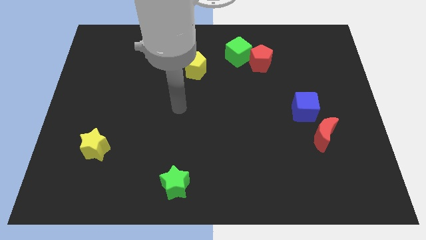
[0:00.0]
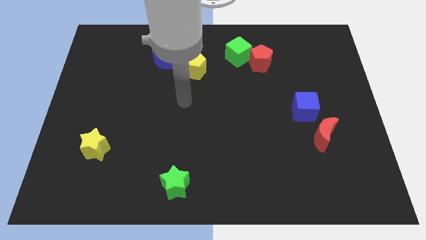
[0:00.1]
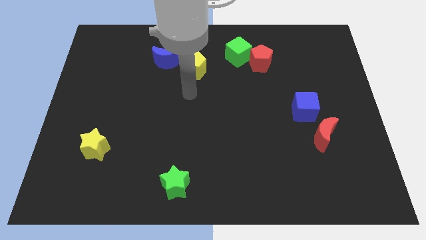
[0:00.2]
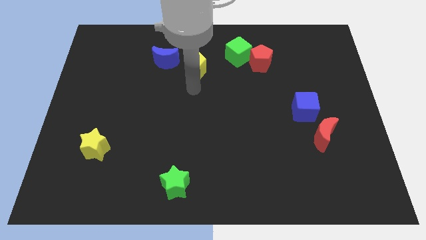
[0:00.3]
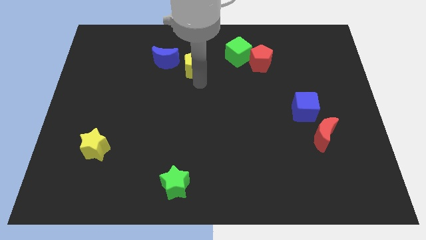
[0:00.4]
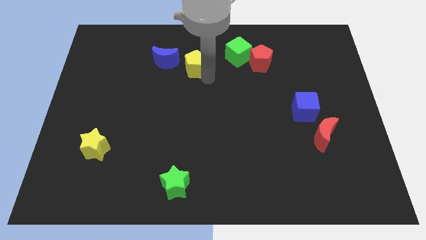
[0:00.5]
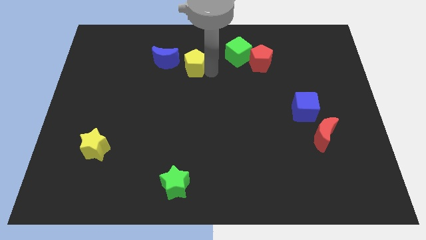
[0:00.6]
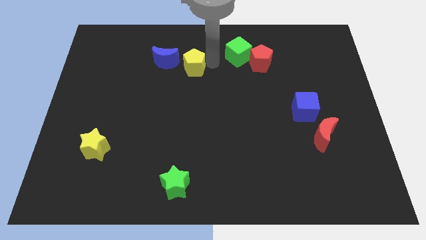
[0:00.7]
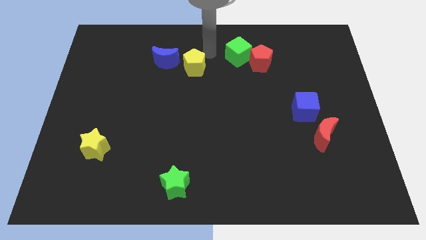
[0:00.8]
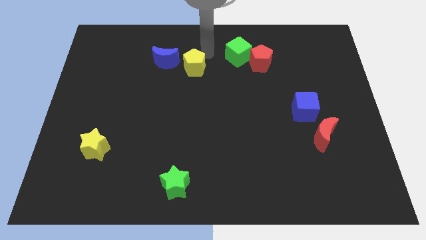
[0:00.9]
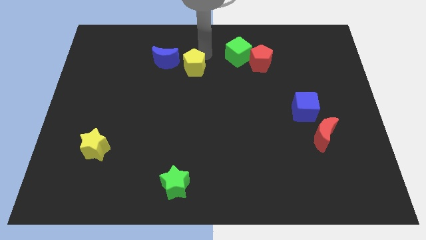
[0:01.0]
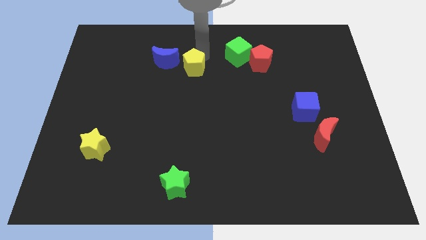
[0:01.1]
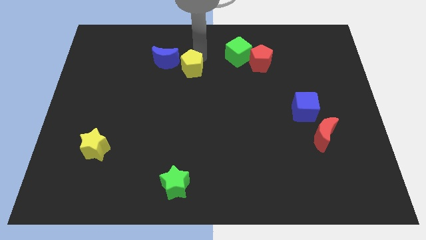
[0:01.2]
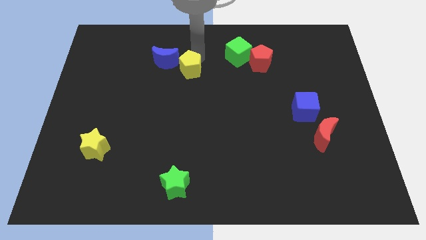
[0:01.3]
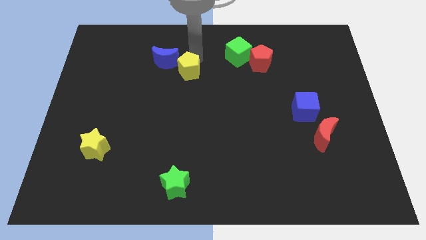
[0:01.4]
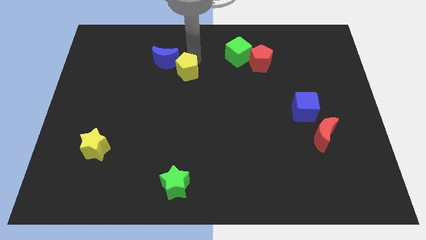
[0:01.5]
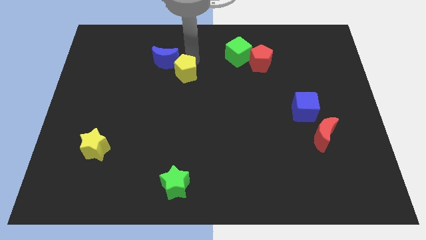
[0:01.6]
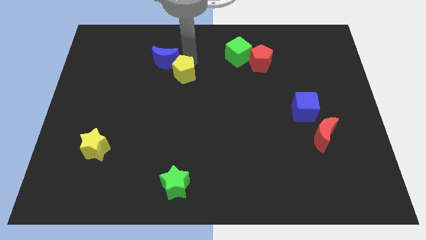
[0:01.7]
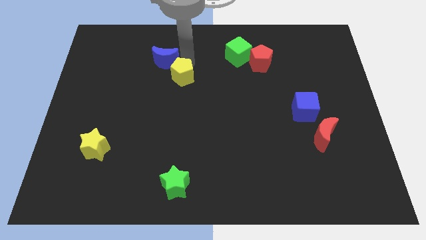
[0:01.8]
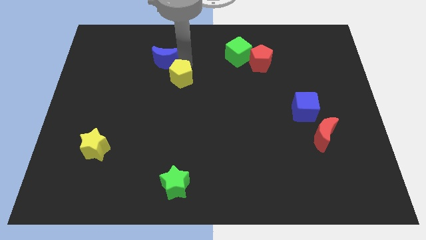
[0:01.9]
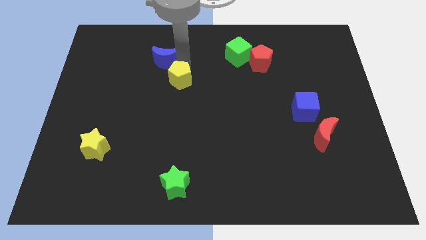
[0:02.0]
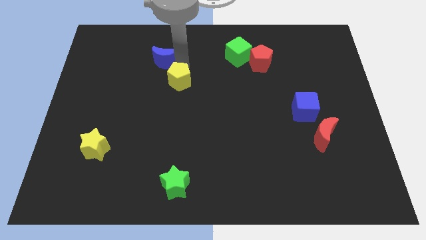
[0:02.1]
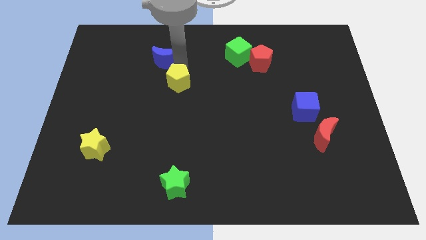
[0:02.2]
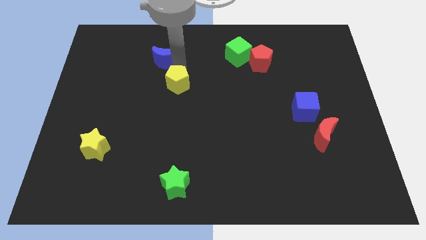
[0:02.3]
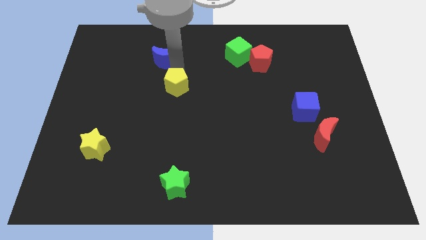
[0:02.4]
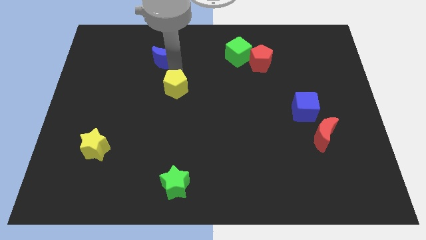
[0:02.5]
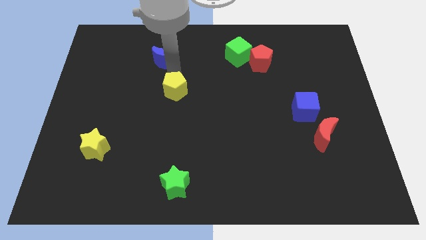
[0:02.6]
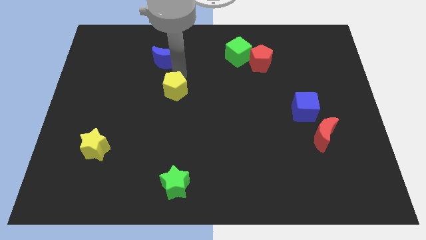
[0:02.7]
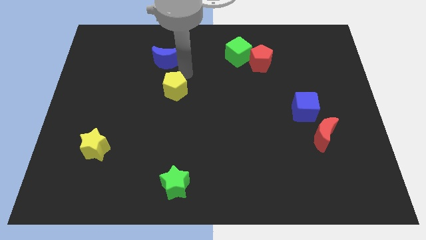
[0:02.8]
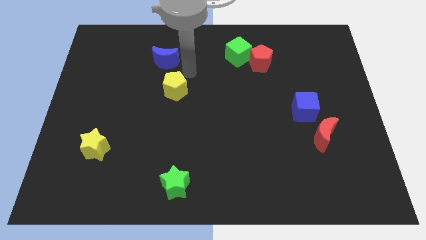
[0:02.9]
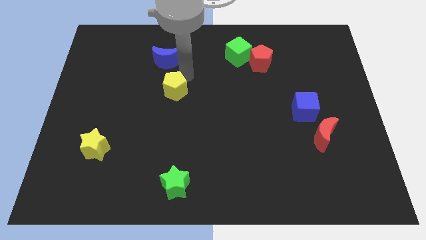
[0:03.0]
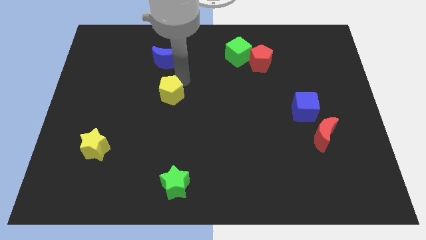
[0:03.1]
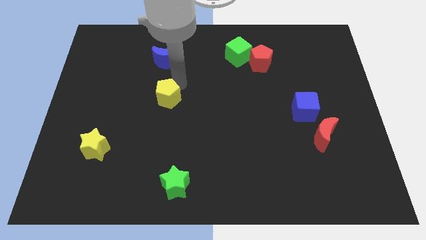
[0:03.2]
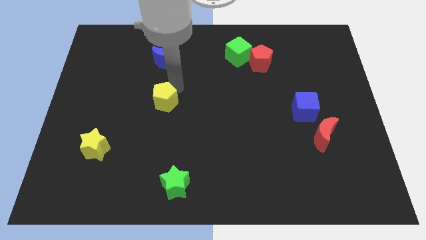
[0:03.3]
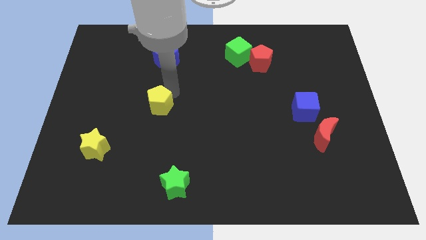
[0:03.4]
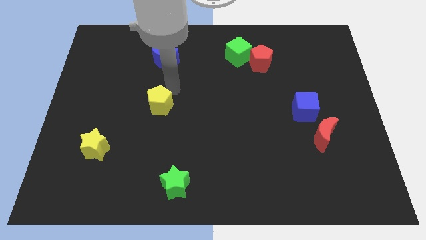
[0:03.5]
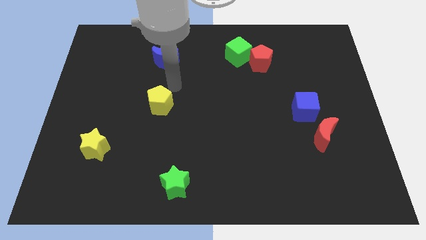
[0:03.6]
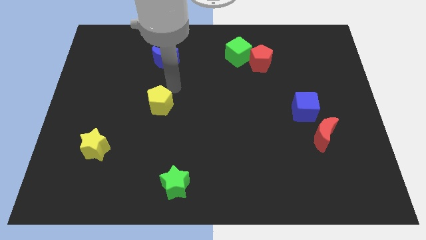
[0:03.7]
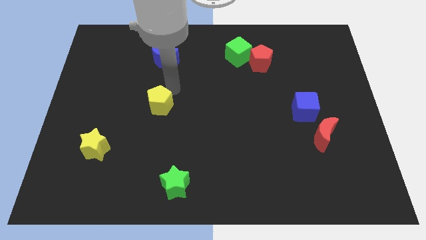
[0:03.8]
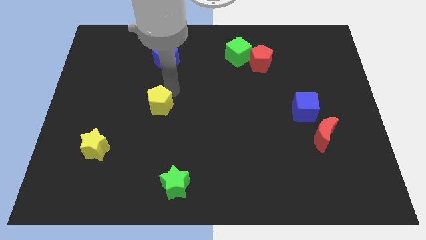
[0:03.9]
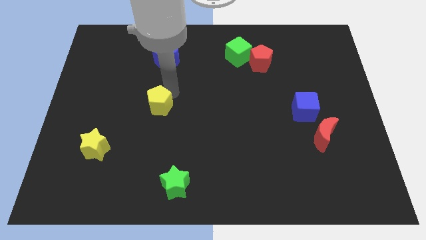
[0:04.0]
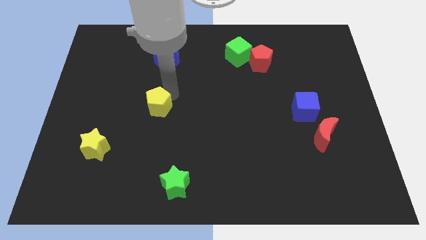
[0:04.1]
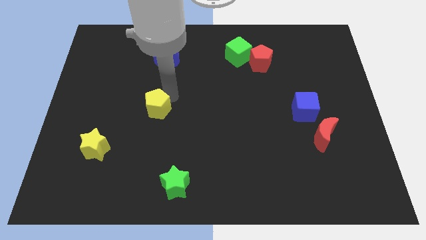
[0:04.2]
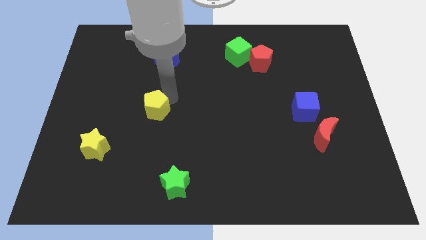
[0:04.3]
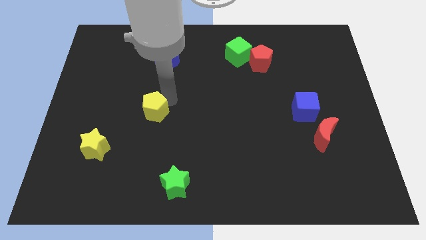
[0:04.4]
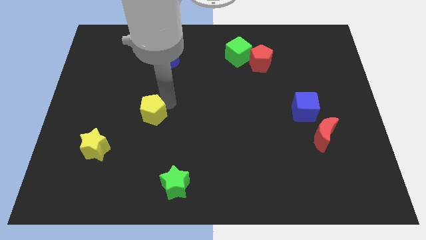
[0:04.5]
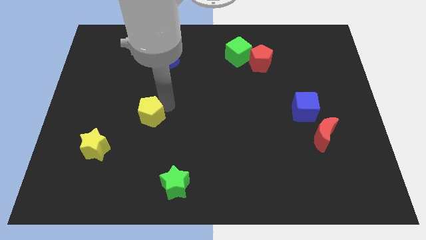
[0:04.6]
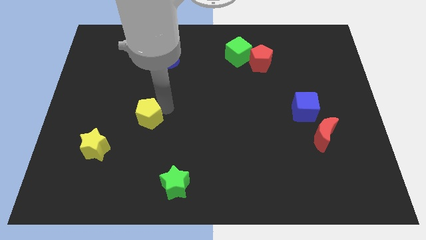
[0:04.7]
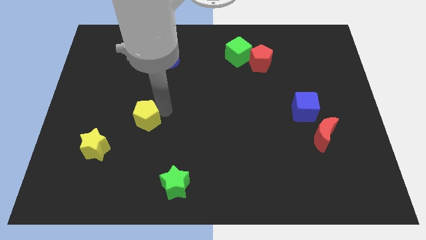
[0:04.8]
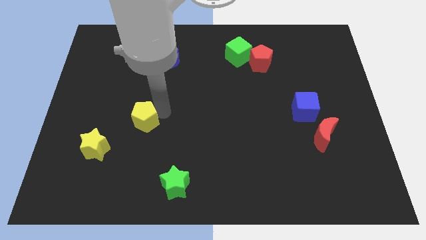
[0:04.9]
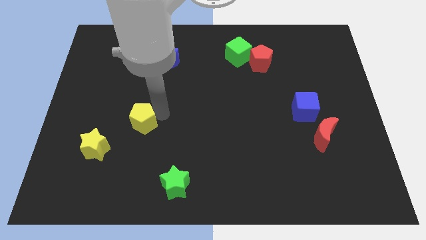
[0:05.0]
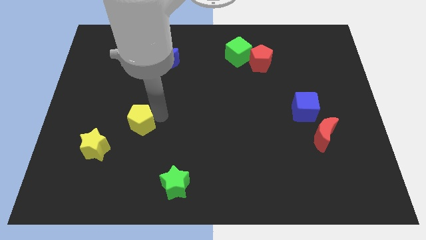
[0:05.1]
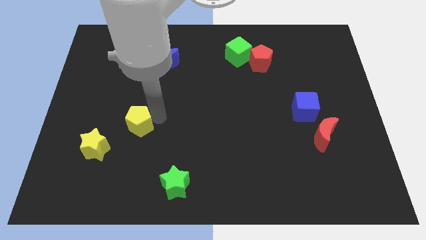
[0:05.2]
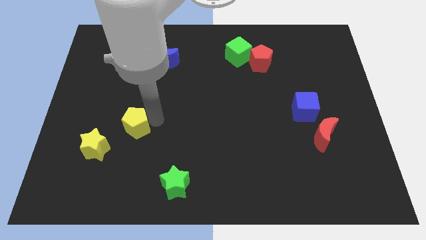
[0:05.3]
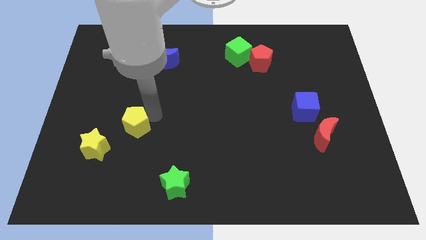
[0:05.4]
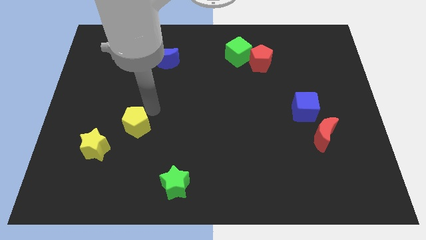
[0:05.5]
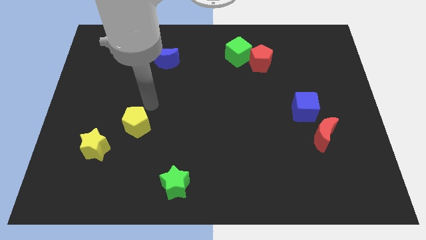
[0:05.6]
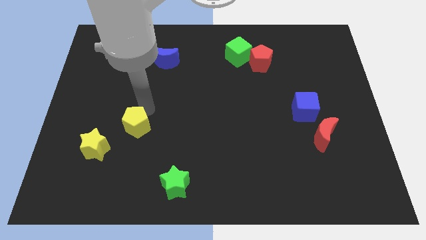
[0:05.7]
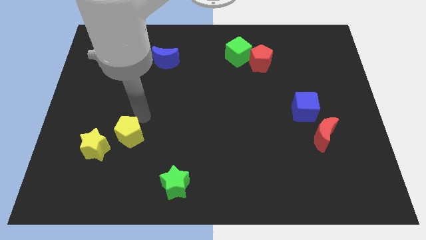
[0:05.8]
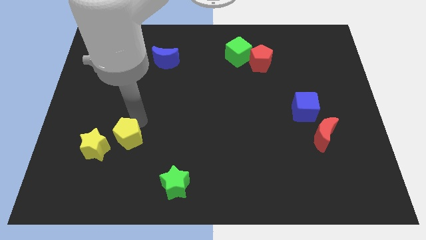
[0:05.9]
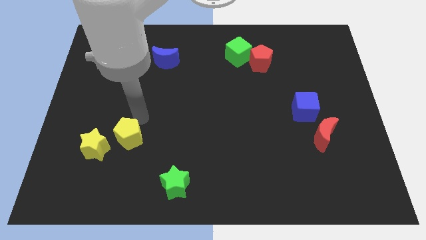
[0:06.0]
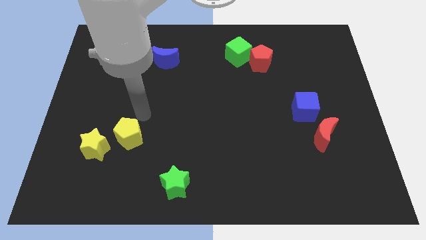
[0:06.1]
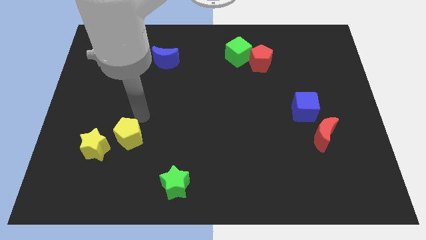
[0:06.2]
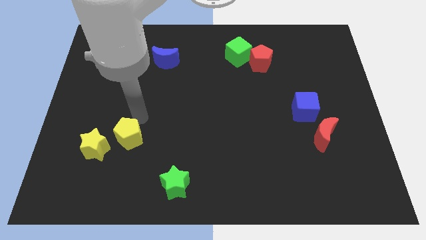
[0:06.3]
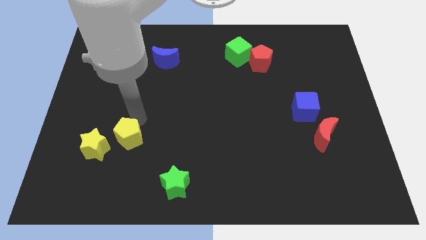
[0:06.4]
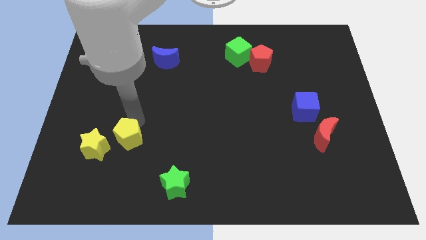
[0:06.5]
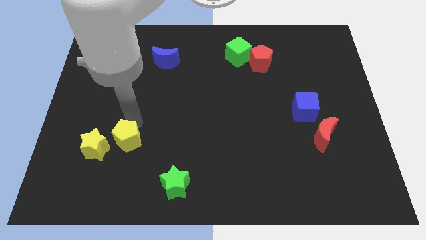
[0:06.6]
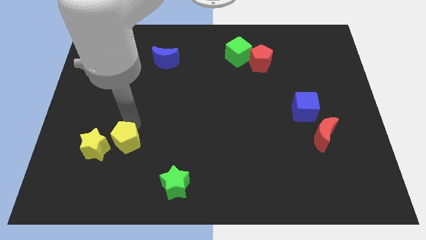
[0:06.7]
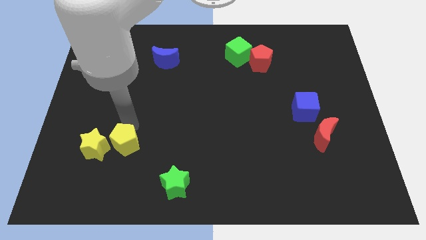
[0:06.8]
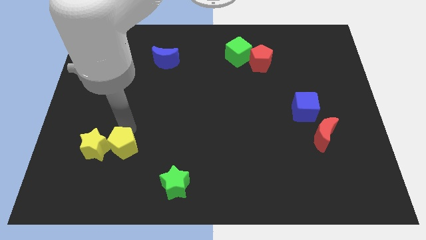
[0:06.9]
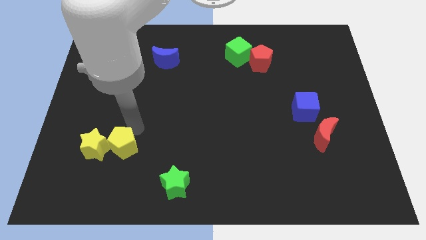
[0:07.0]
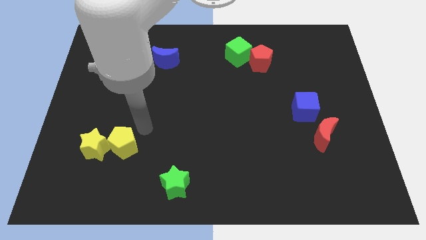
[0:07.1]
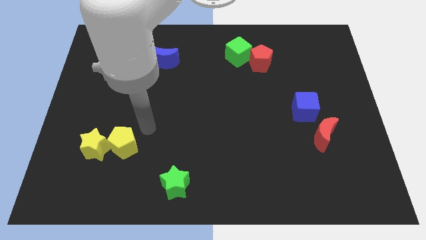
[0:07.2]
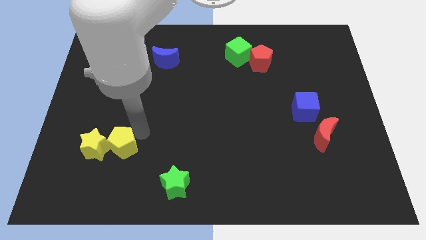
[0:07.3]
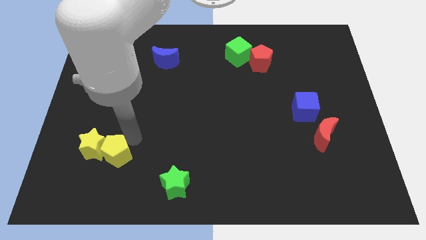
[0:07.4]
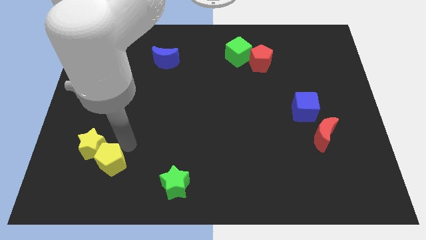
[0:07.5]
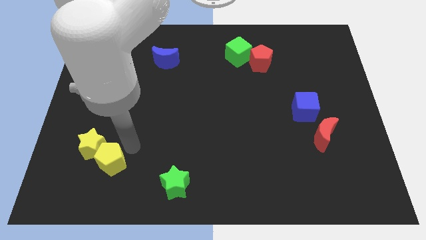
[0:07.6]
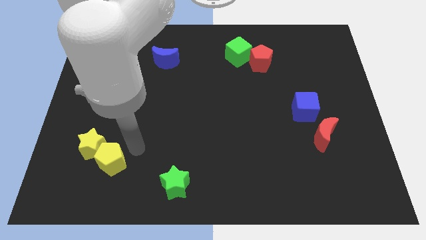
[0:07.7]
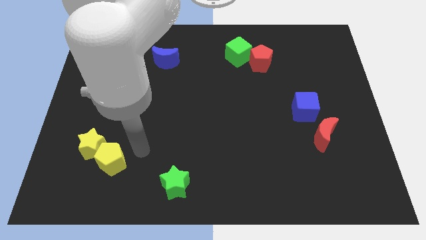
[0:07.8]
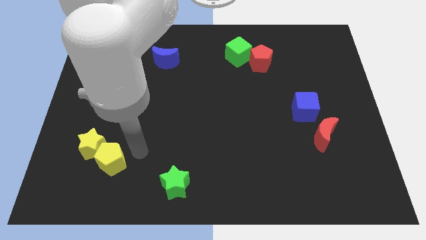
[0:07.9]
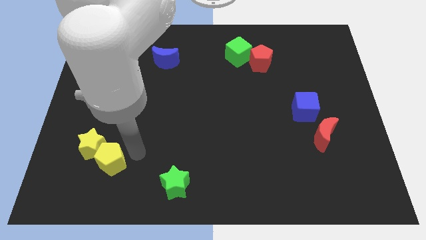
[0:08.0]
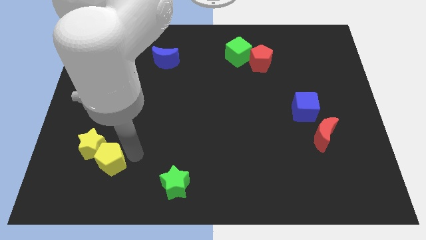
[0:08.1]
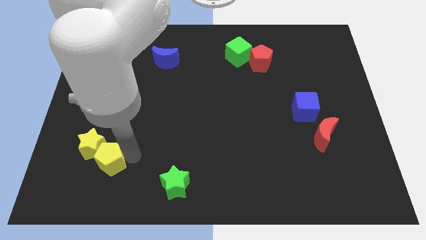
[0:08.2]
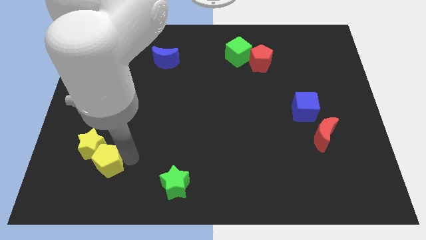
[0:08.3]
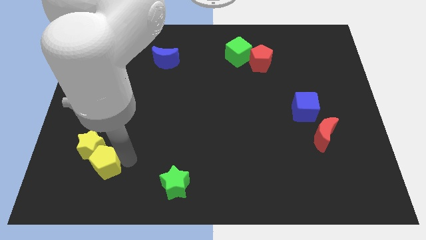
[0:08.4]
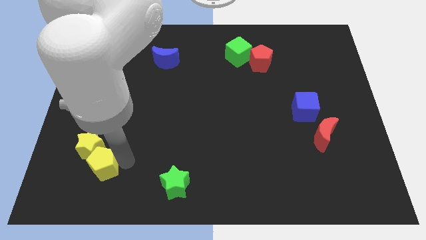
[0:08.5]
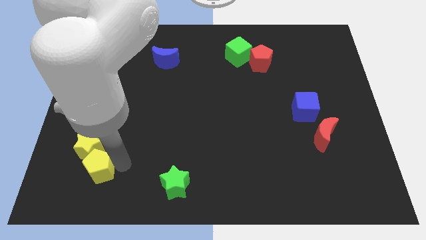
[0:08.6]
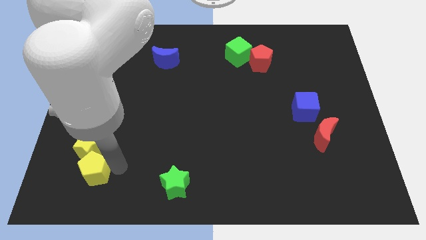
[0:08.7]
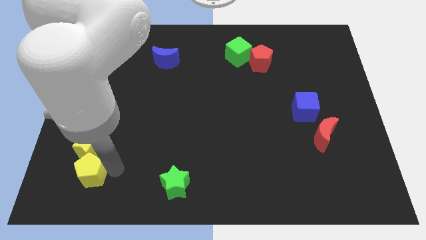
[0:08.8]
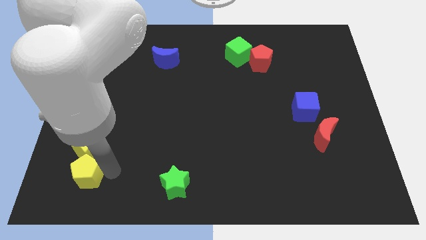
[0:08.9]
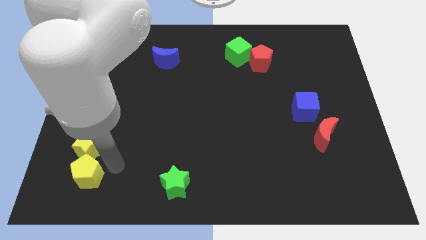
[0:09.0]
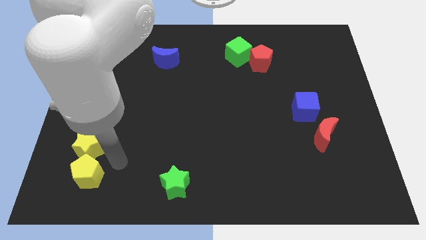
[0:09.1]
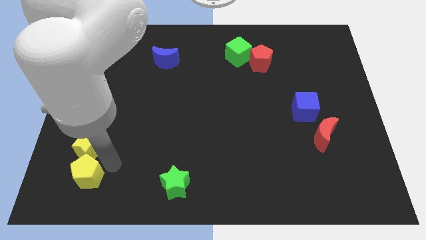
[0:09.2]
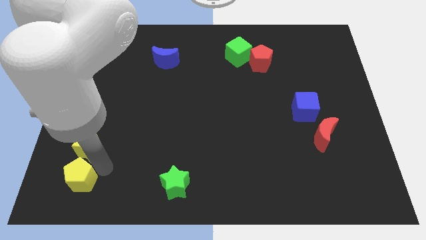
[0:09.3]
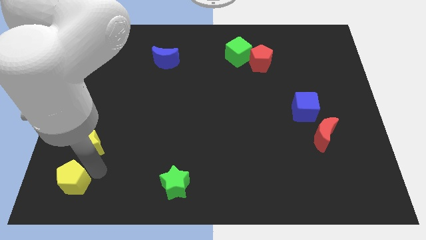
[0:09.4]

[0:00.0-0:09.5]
slide the yellow pentagon to the bottom left corner
